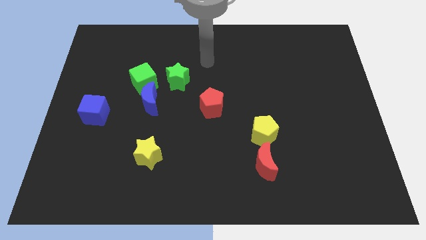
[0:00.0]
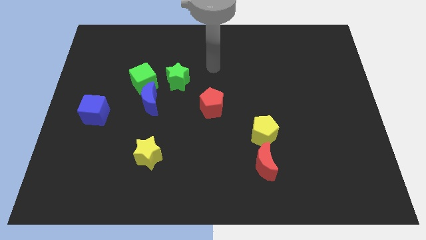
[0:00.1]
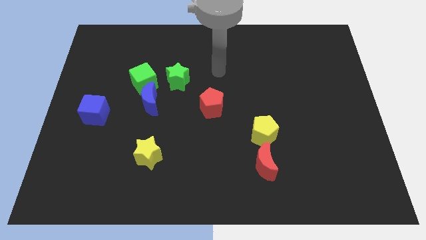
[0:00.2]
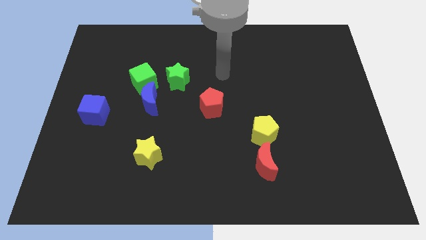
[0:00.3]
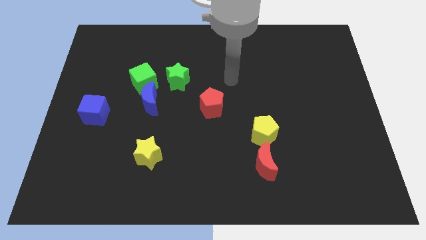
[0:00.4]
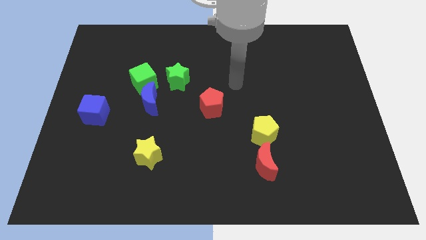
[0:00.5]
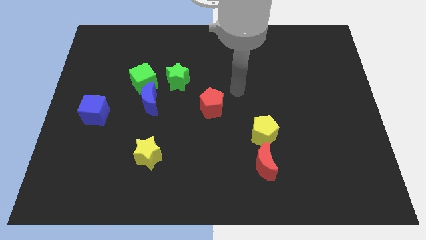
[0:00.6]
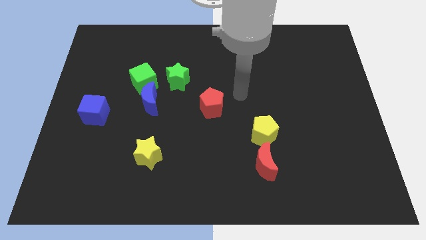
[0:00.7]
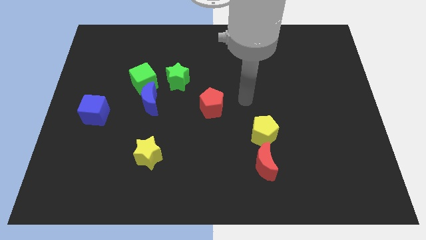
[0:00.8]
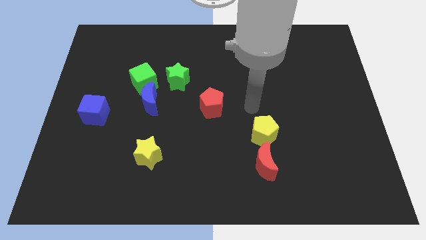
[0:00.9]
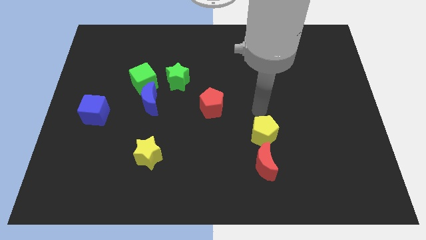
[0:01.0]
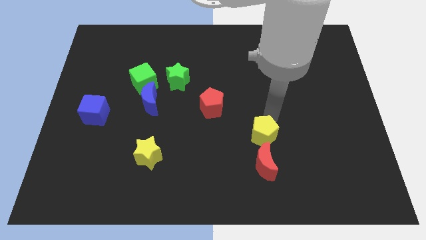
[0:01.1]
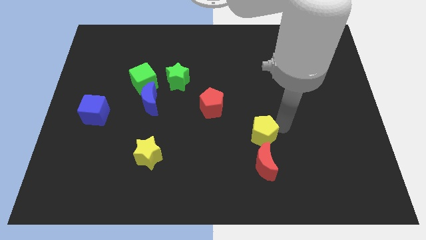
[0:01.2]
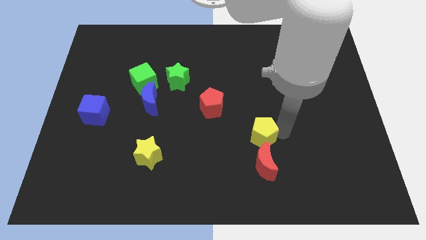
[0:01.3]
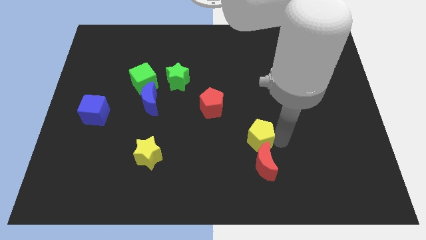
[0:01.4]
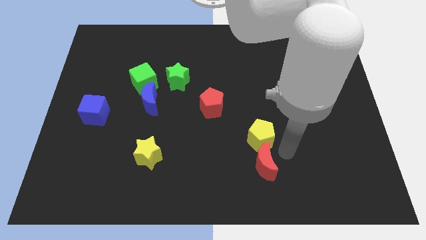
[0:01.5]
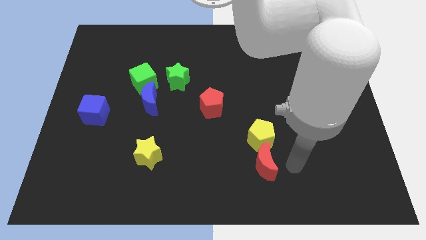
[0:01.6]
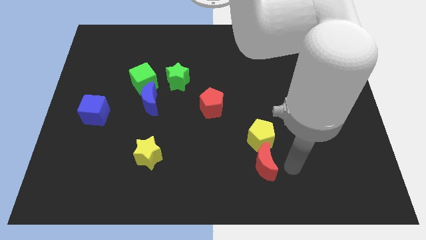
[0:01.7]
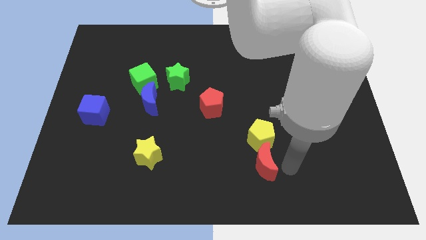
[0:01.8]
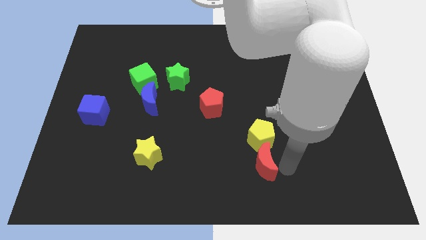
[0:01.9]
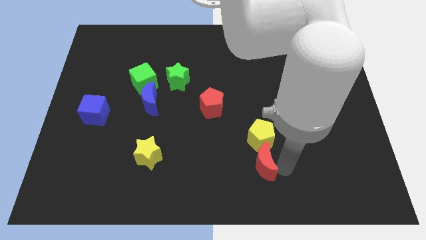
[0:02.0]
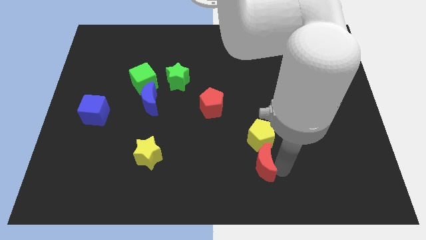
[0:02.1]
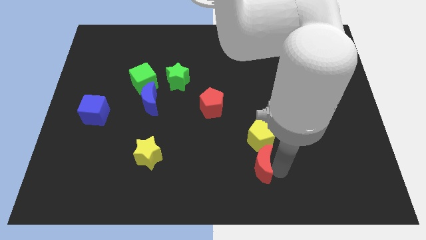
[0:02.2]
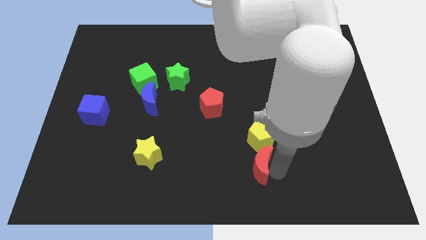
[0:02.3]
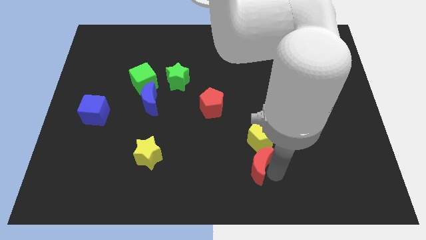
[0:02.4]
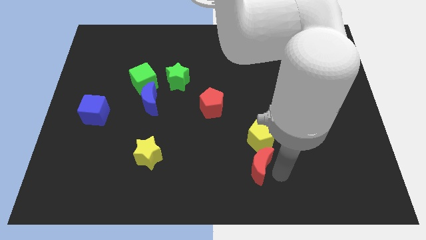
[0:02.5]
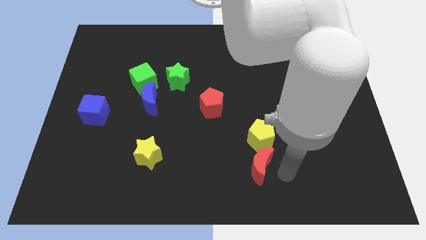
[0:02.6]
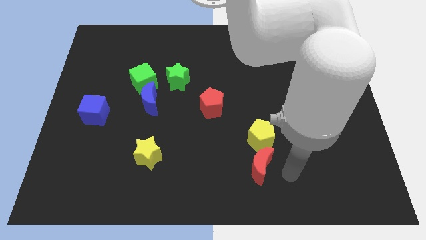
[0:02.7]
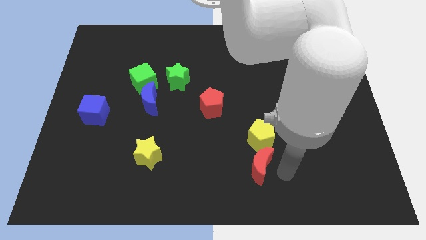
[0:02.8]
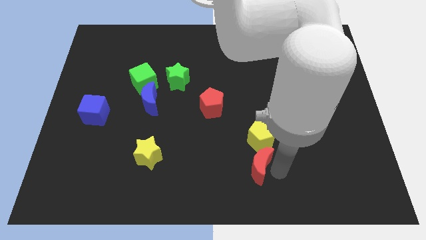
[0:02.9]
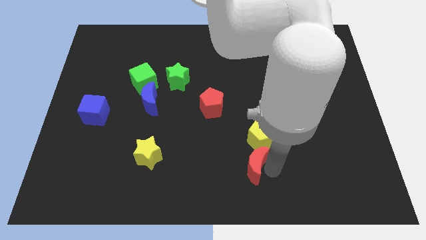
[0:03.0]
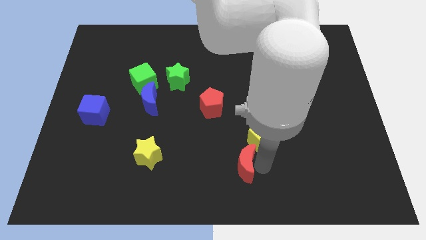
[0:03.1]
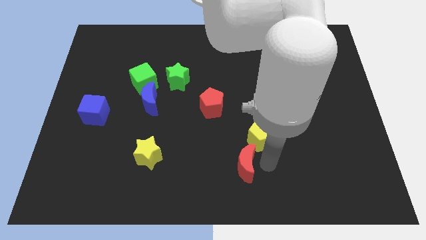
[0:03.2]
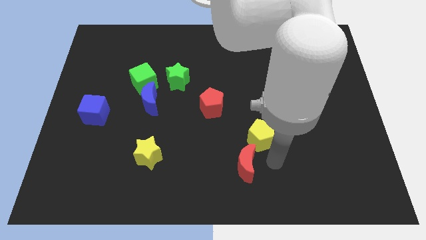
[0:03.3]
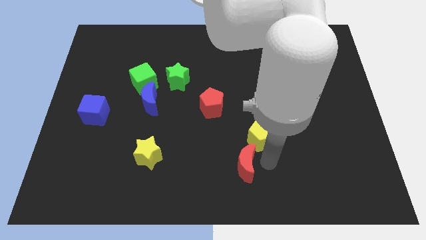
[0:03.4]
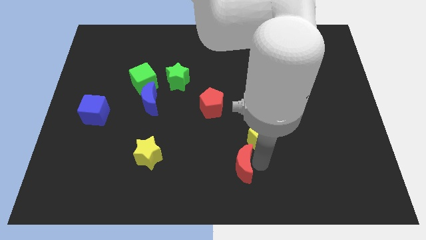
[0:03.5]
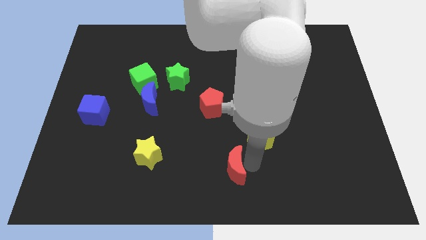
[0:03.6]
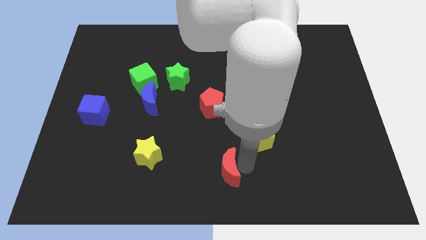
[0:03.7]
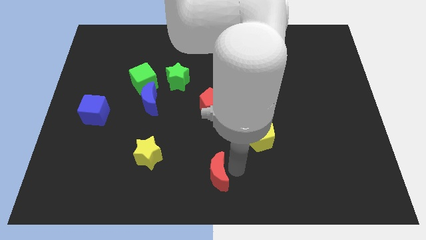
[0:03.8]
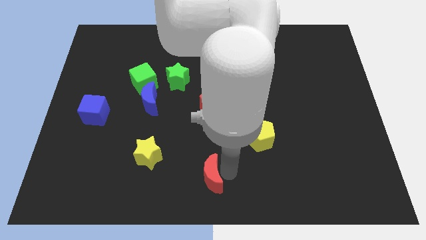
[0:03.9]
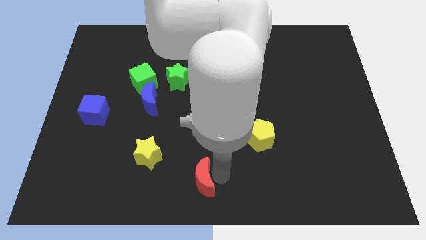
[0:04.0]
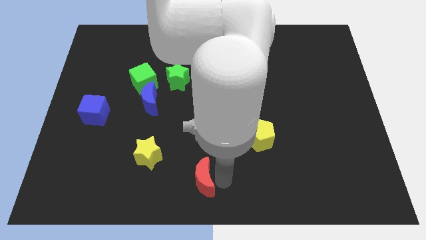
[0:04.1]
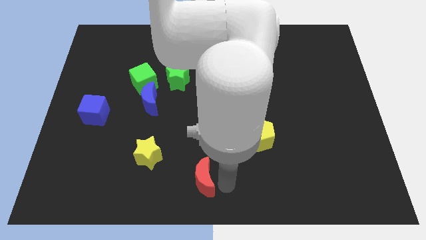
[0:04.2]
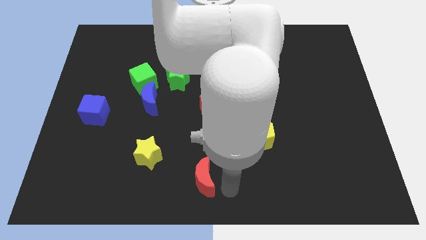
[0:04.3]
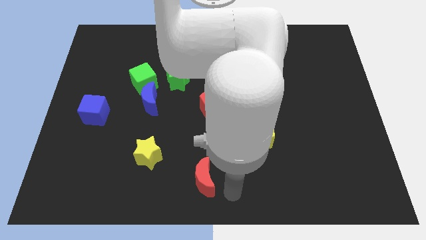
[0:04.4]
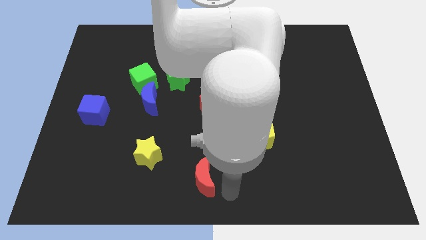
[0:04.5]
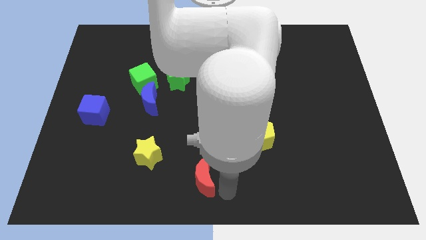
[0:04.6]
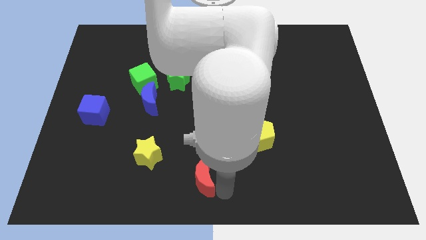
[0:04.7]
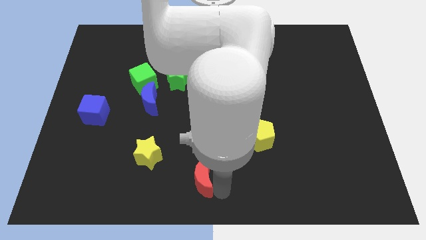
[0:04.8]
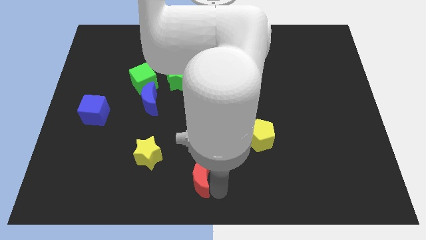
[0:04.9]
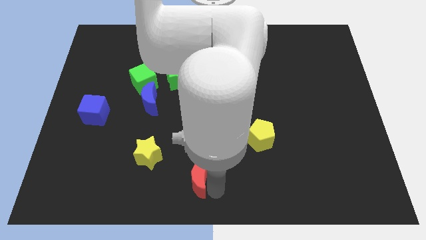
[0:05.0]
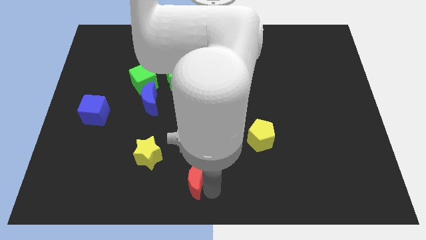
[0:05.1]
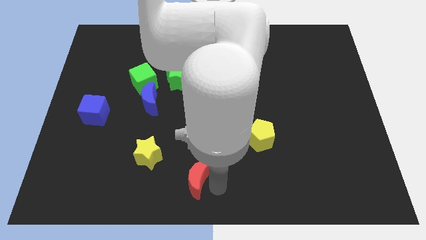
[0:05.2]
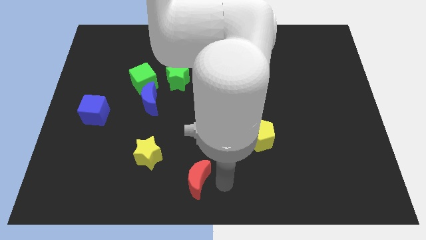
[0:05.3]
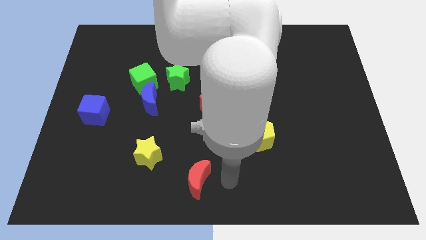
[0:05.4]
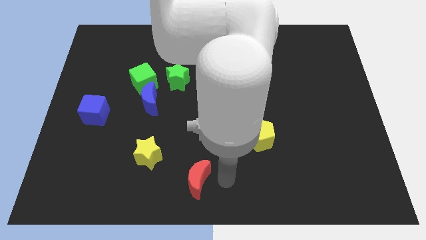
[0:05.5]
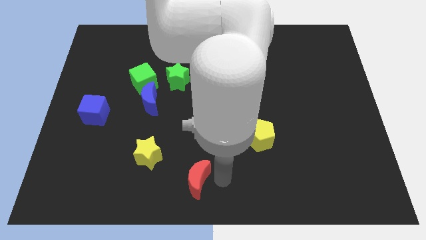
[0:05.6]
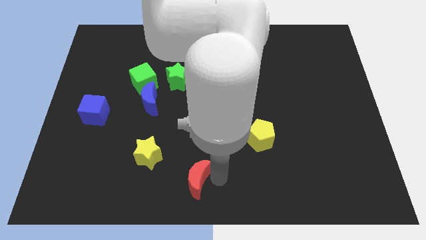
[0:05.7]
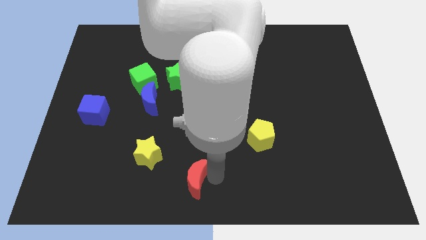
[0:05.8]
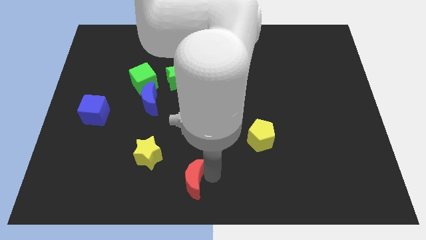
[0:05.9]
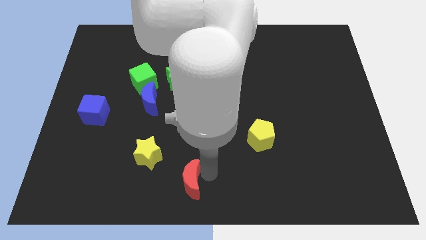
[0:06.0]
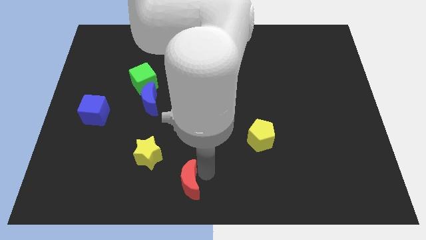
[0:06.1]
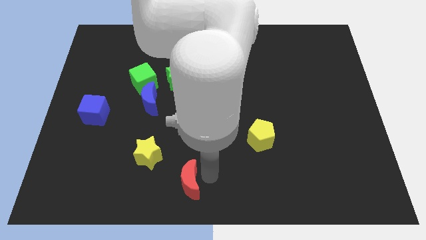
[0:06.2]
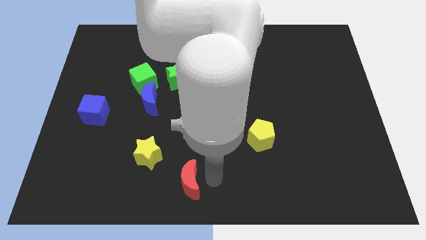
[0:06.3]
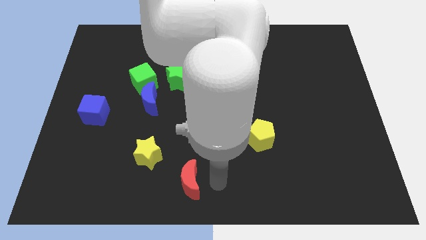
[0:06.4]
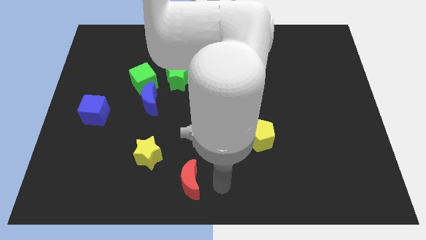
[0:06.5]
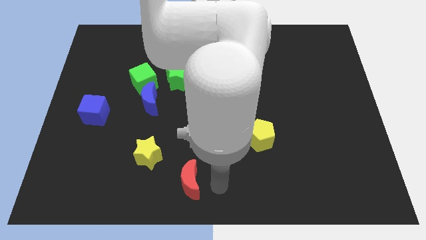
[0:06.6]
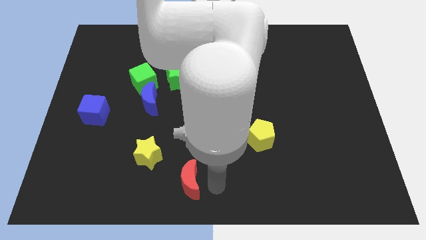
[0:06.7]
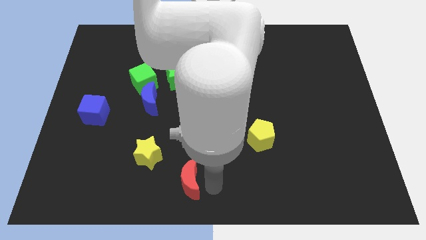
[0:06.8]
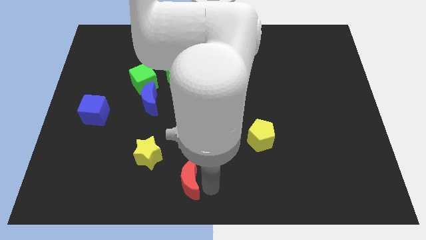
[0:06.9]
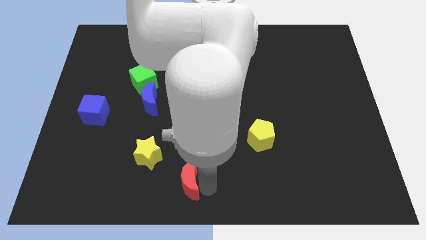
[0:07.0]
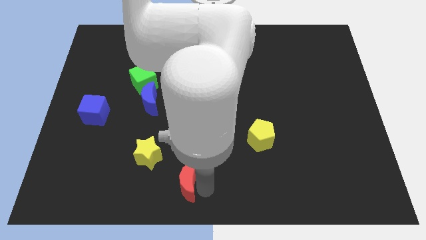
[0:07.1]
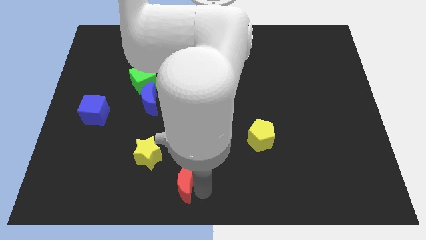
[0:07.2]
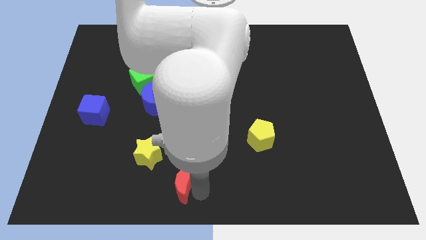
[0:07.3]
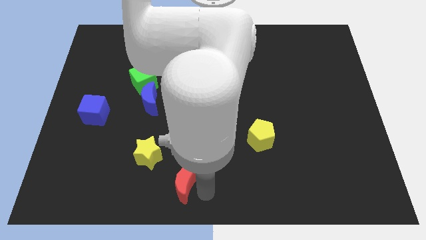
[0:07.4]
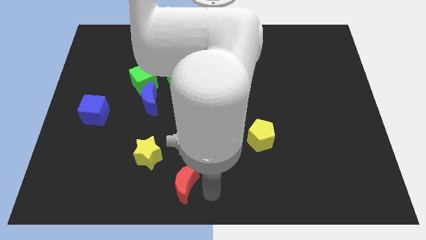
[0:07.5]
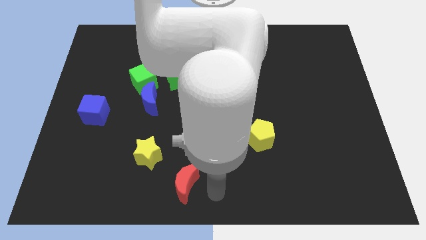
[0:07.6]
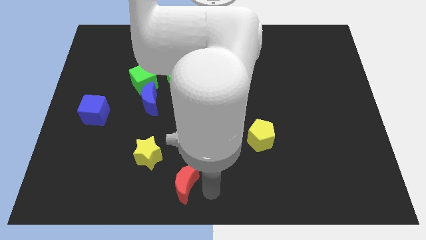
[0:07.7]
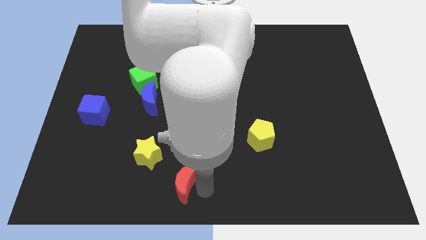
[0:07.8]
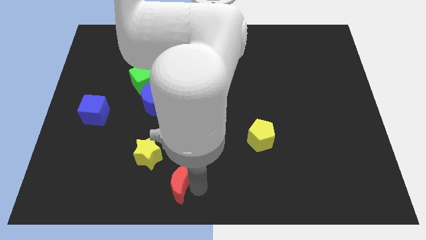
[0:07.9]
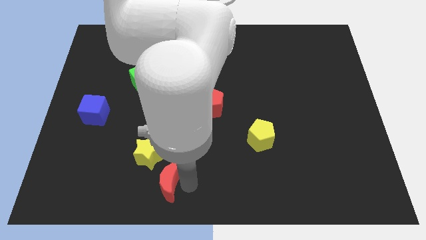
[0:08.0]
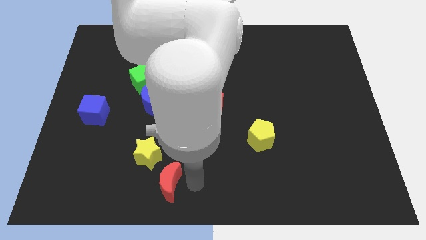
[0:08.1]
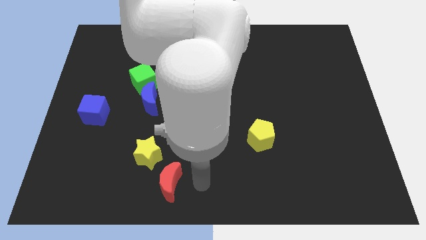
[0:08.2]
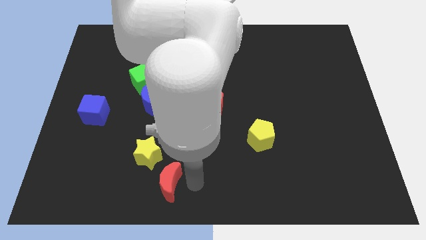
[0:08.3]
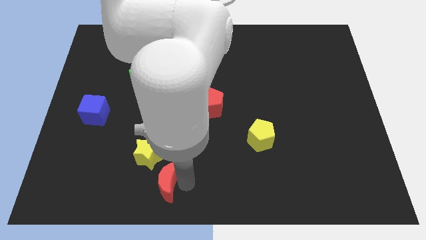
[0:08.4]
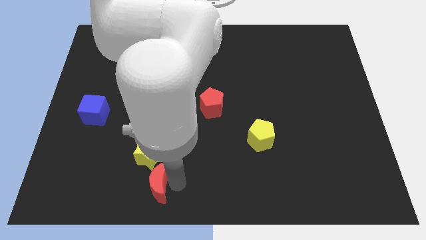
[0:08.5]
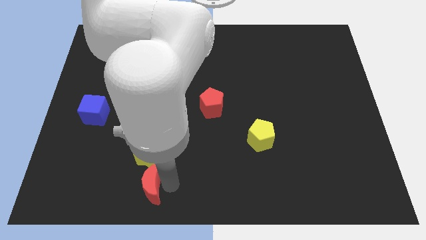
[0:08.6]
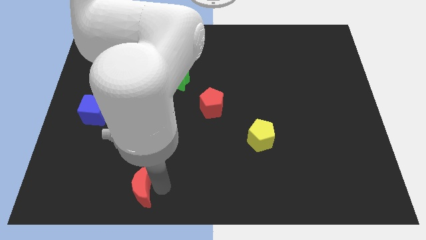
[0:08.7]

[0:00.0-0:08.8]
push the red moon to the bottom left side of the yellow star
